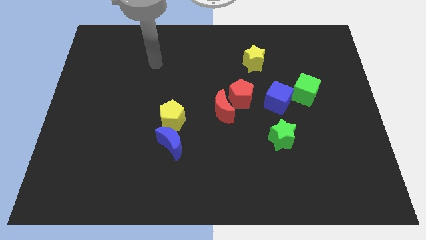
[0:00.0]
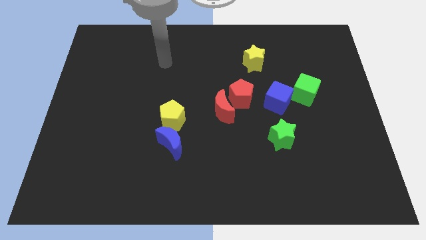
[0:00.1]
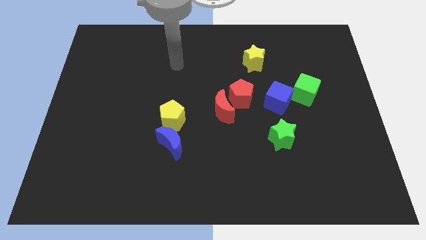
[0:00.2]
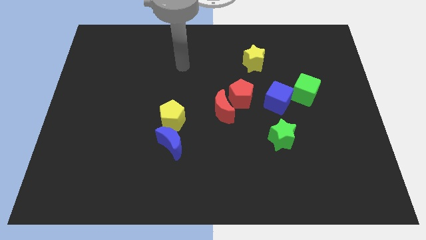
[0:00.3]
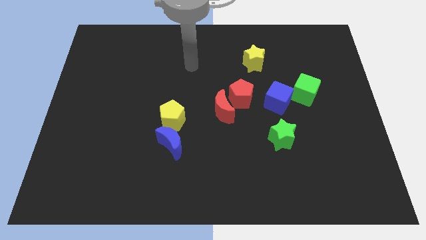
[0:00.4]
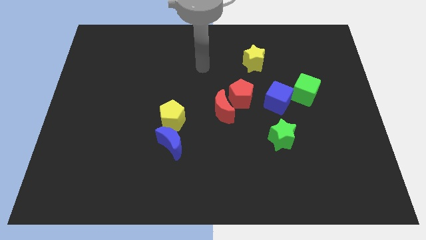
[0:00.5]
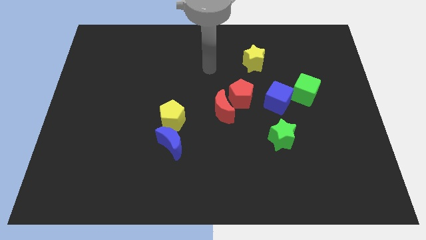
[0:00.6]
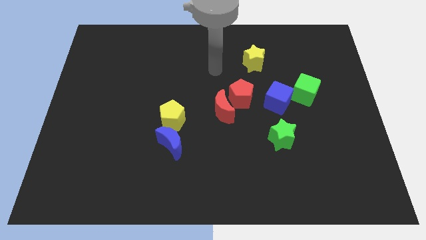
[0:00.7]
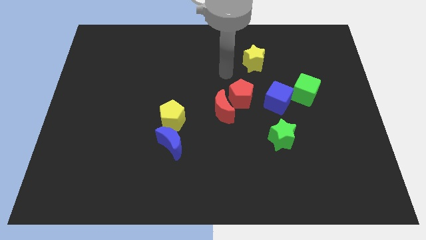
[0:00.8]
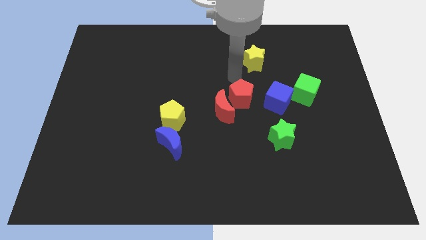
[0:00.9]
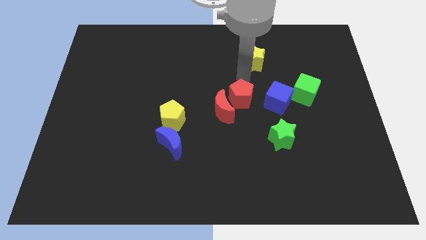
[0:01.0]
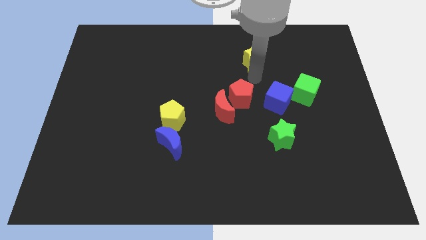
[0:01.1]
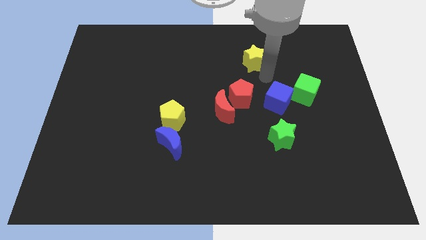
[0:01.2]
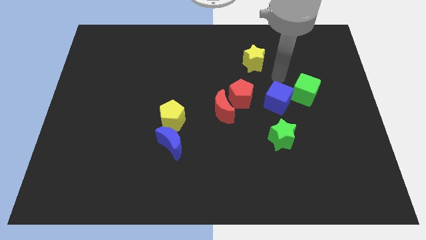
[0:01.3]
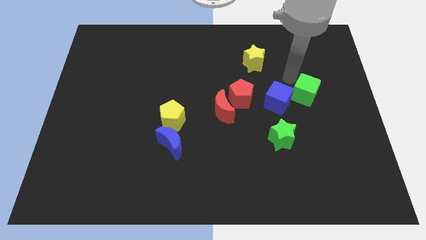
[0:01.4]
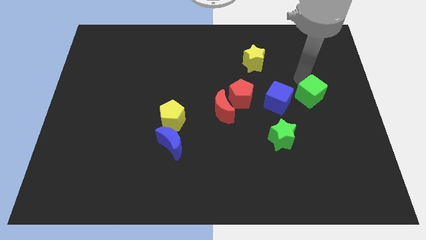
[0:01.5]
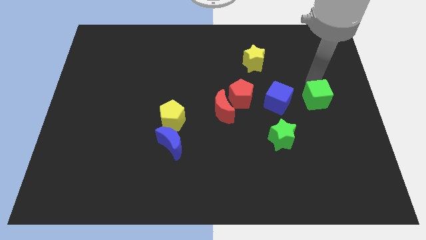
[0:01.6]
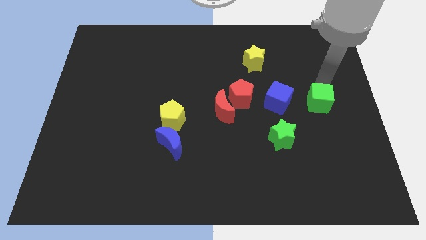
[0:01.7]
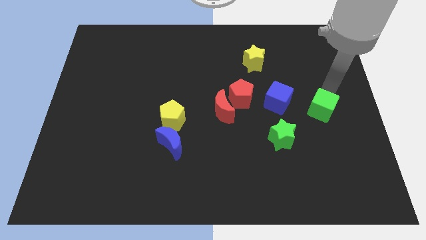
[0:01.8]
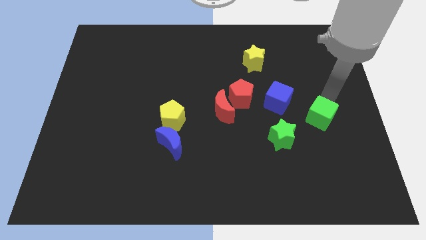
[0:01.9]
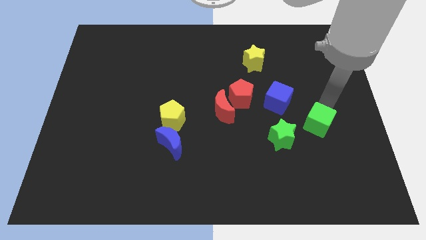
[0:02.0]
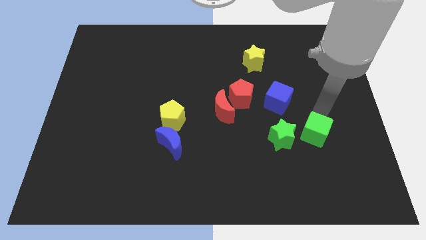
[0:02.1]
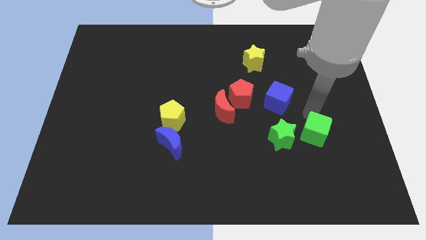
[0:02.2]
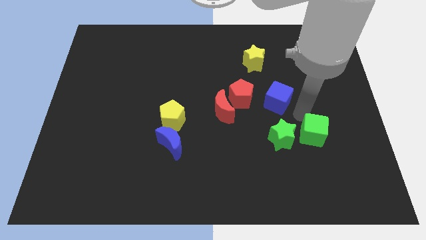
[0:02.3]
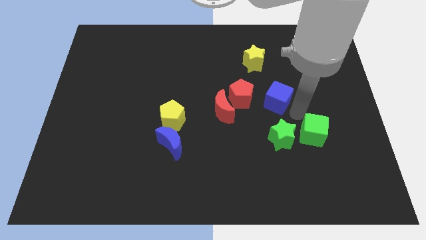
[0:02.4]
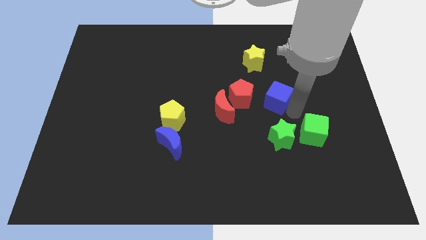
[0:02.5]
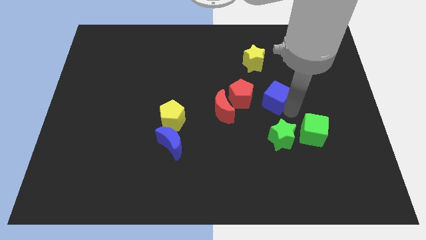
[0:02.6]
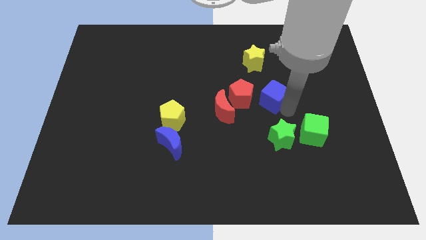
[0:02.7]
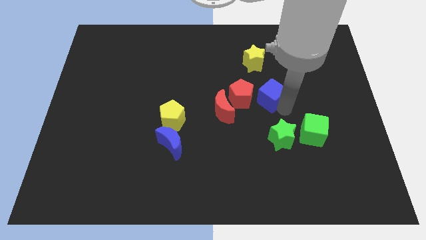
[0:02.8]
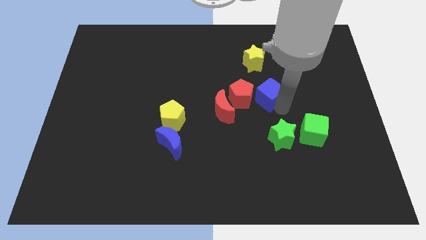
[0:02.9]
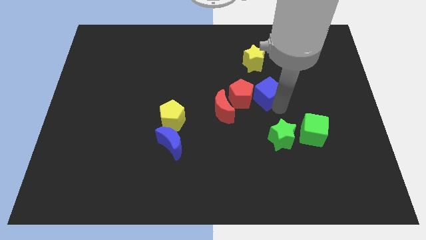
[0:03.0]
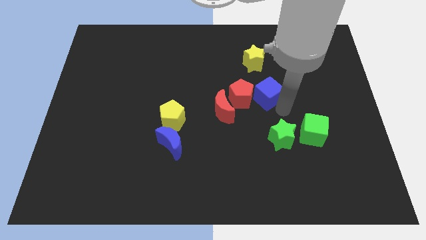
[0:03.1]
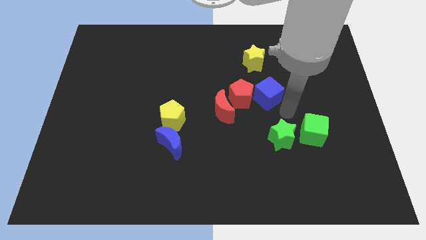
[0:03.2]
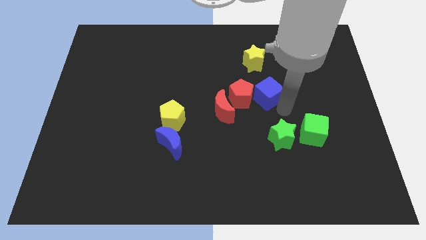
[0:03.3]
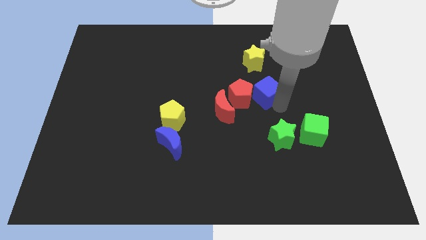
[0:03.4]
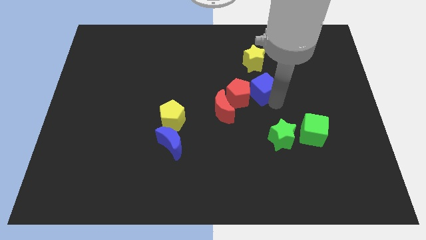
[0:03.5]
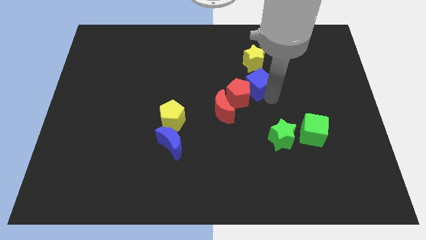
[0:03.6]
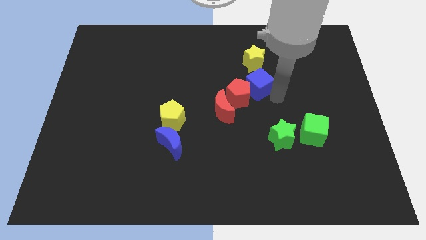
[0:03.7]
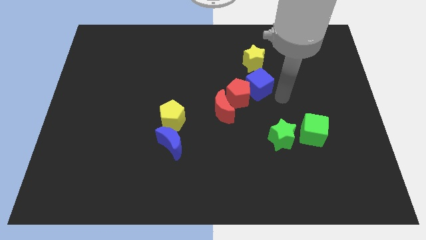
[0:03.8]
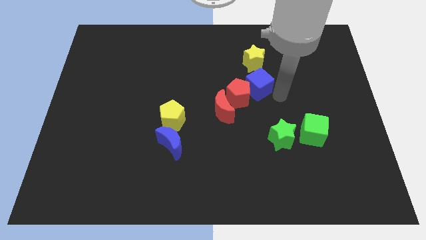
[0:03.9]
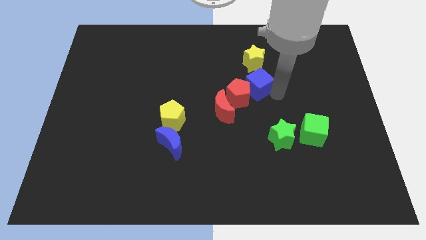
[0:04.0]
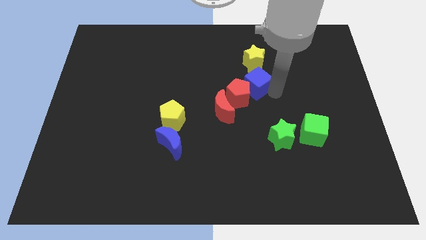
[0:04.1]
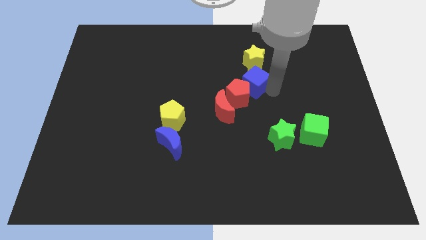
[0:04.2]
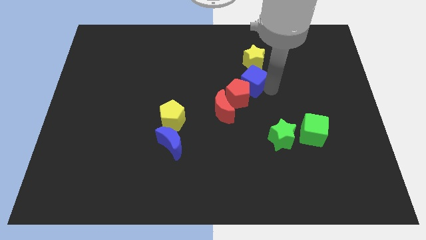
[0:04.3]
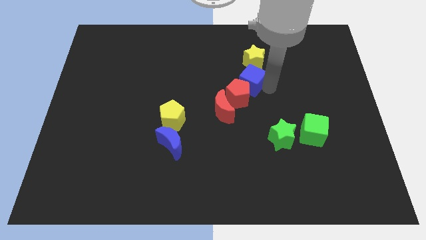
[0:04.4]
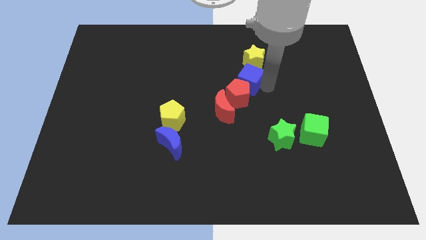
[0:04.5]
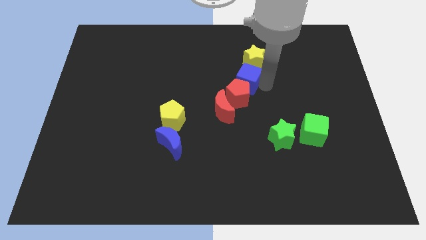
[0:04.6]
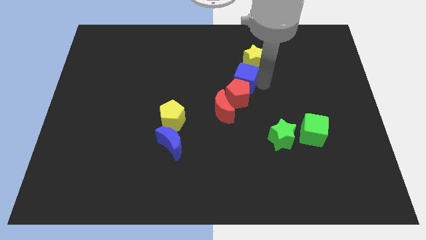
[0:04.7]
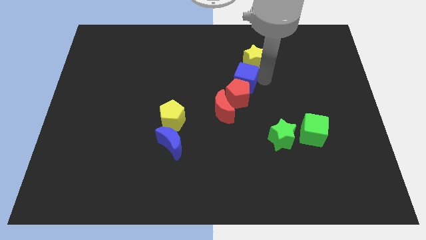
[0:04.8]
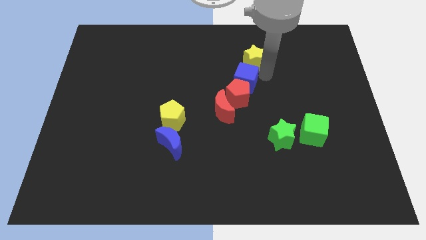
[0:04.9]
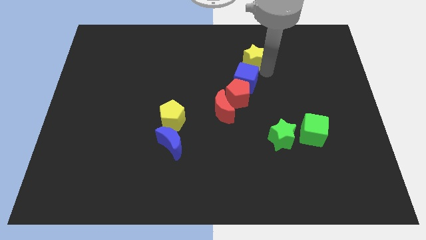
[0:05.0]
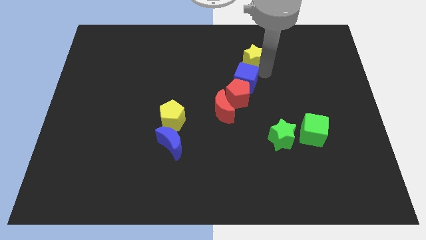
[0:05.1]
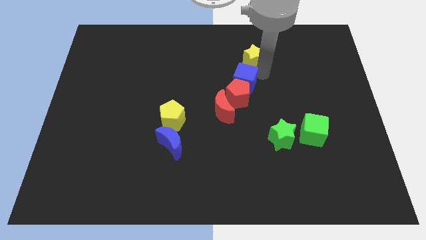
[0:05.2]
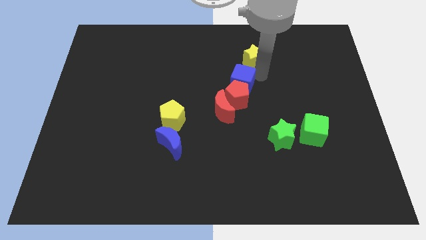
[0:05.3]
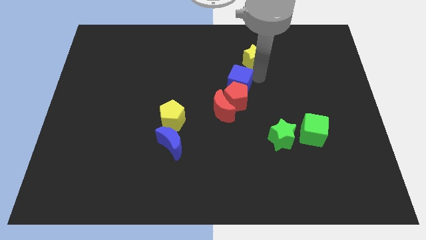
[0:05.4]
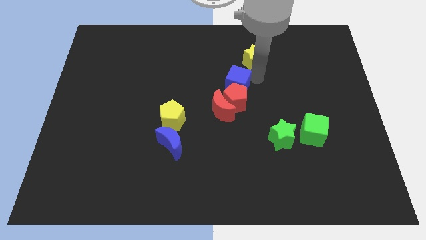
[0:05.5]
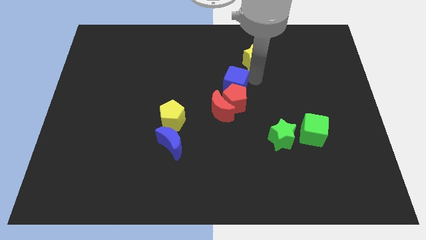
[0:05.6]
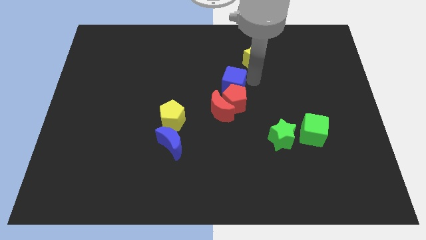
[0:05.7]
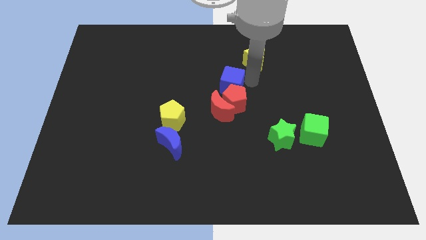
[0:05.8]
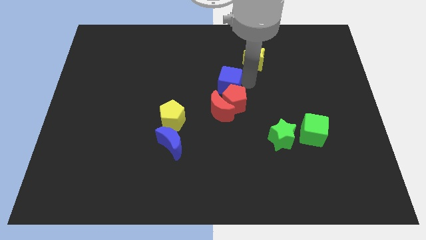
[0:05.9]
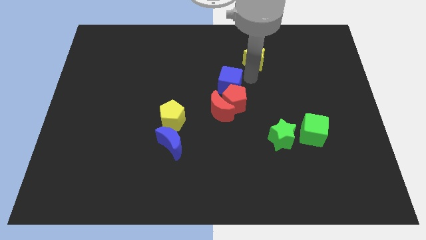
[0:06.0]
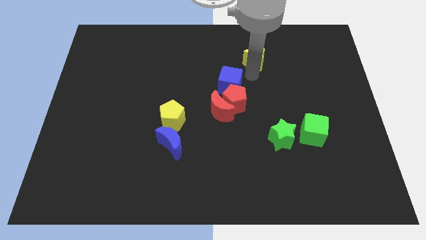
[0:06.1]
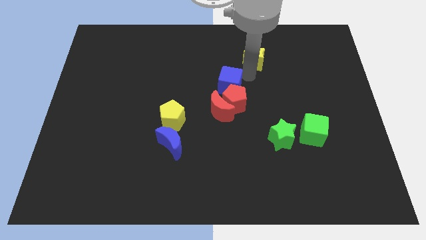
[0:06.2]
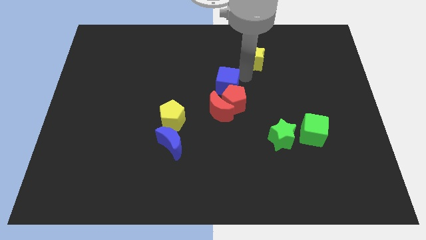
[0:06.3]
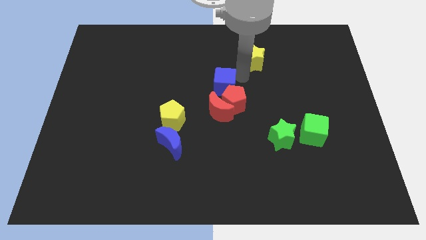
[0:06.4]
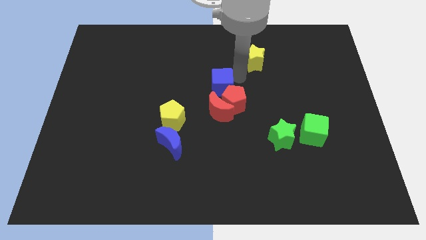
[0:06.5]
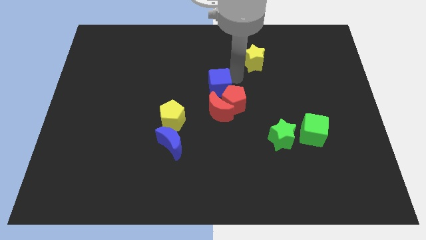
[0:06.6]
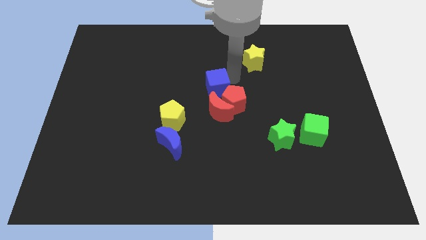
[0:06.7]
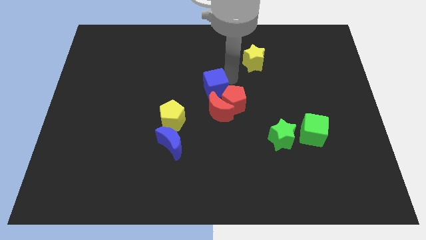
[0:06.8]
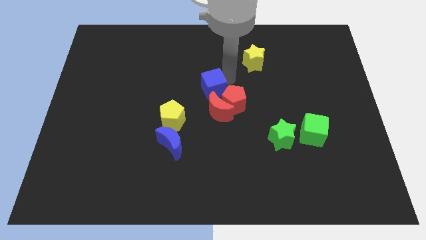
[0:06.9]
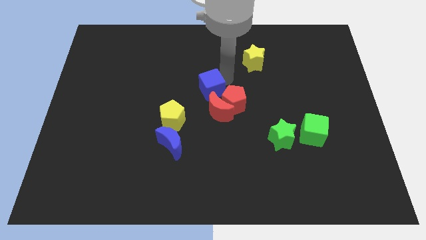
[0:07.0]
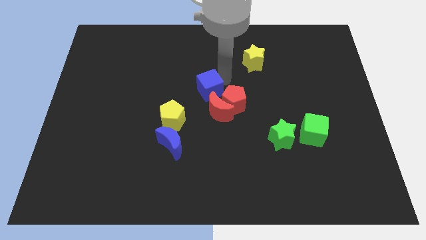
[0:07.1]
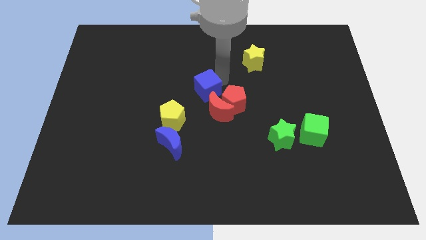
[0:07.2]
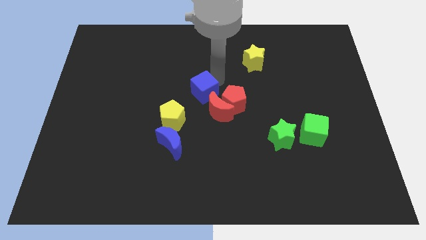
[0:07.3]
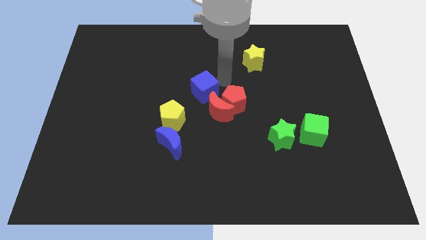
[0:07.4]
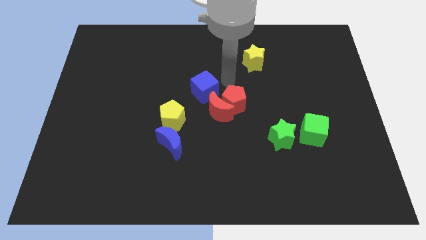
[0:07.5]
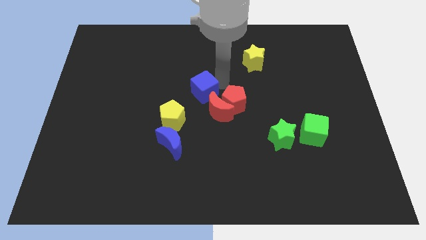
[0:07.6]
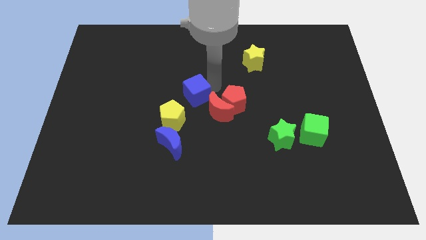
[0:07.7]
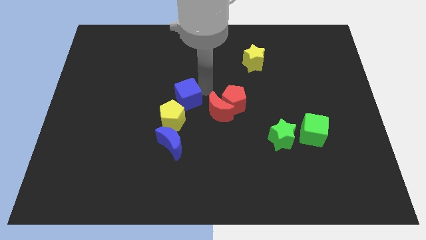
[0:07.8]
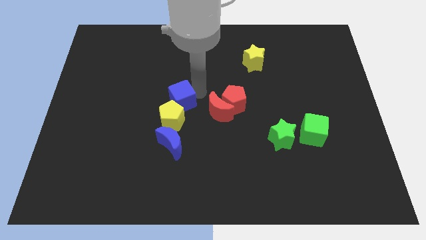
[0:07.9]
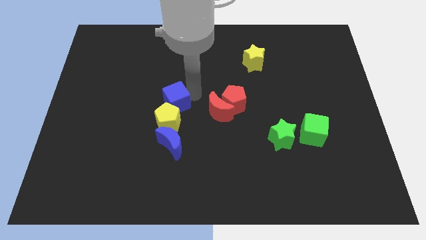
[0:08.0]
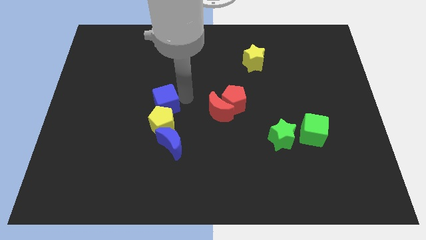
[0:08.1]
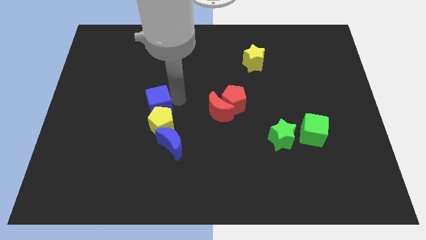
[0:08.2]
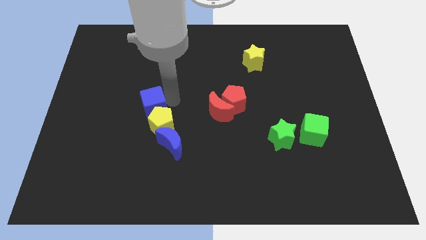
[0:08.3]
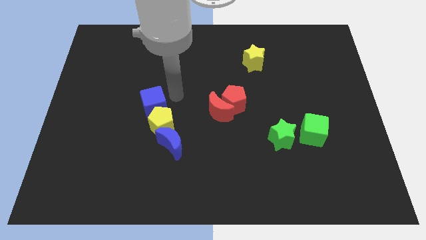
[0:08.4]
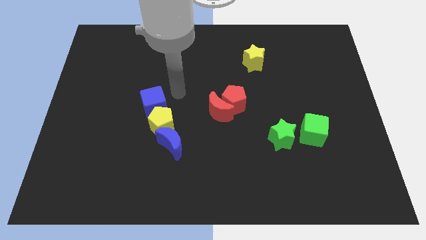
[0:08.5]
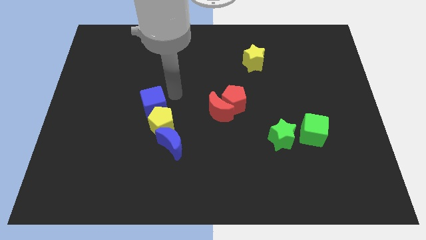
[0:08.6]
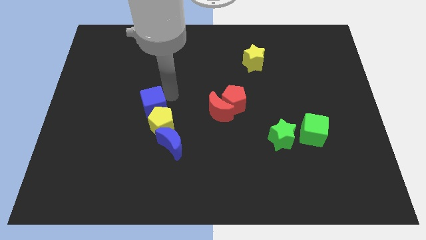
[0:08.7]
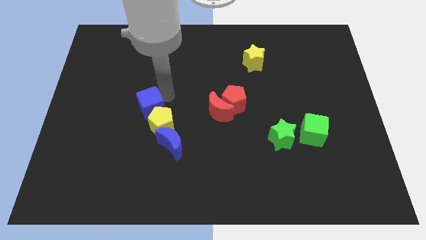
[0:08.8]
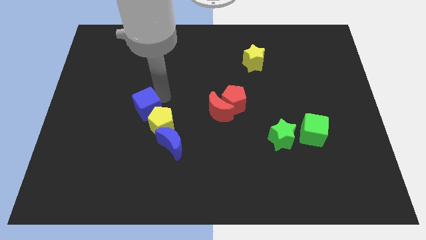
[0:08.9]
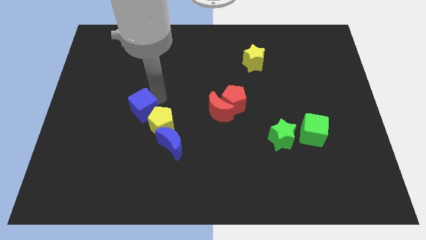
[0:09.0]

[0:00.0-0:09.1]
push the blue cube to the left of the yellow pentagon
